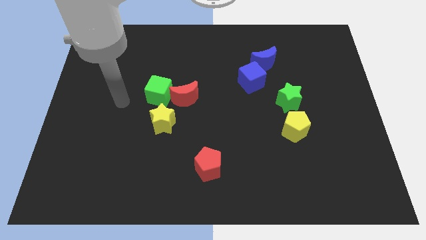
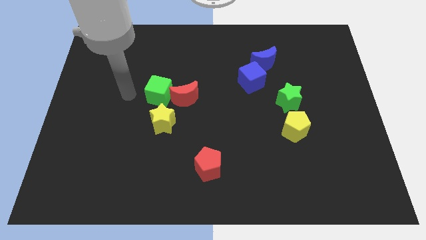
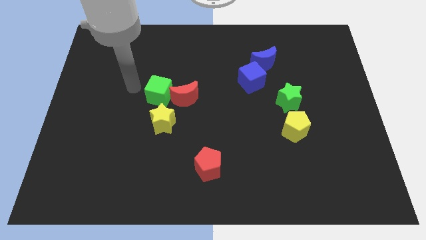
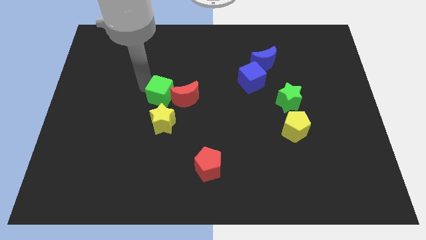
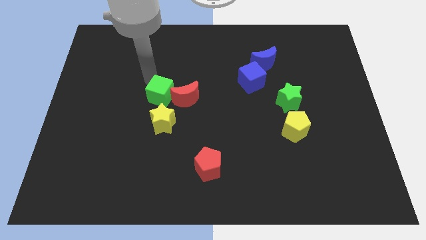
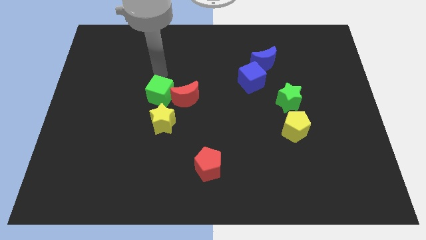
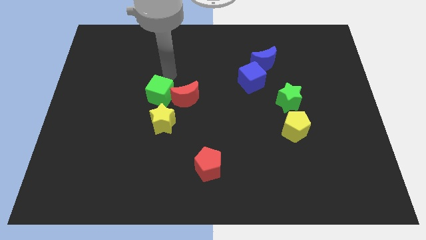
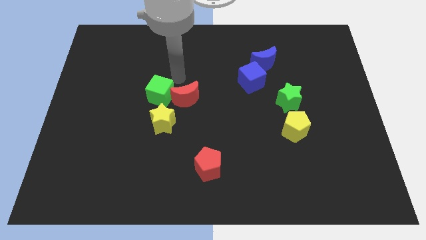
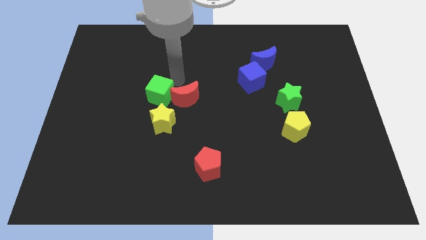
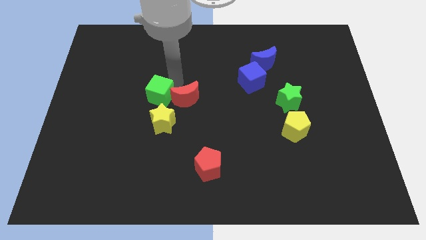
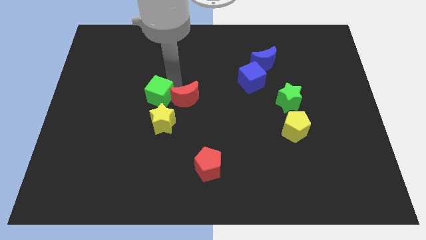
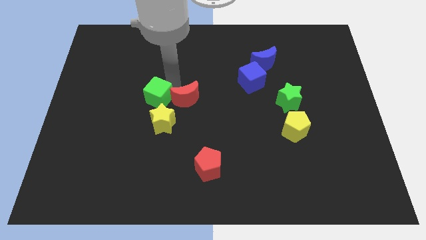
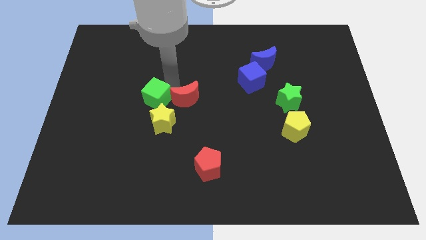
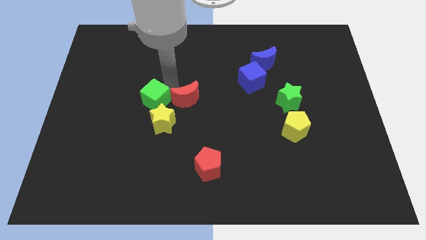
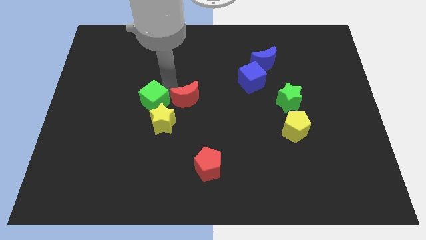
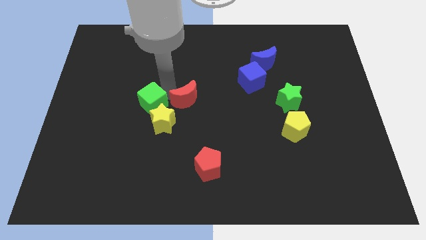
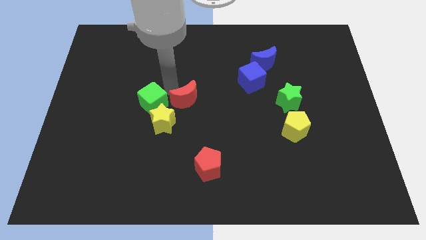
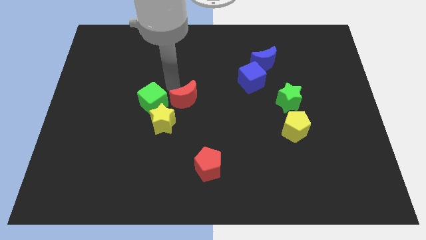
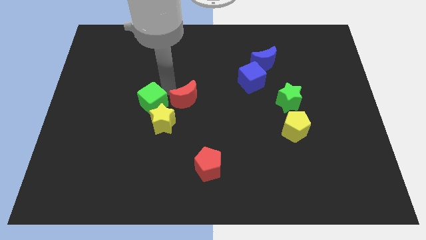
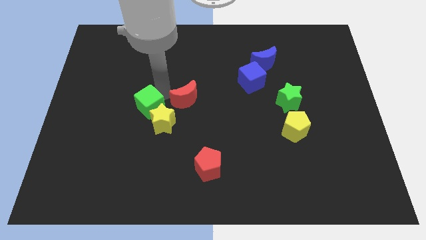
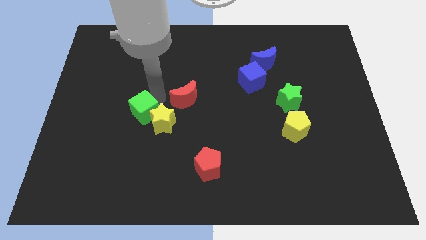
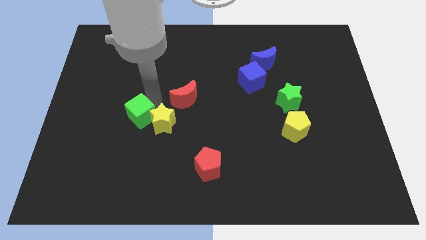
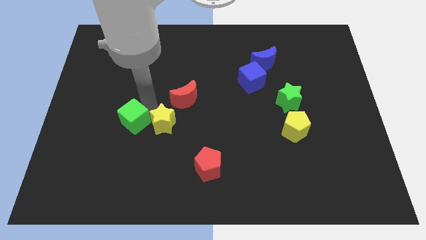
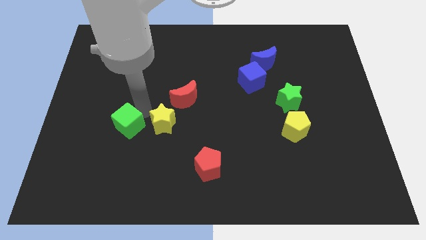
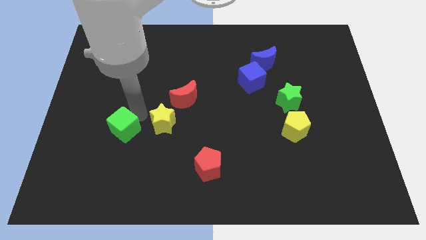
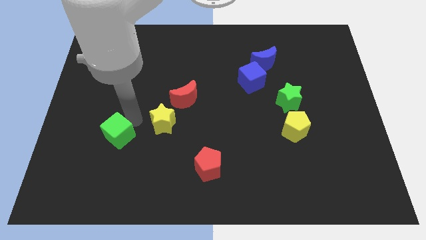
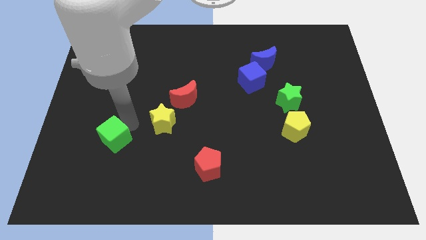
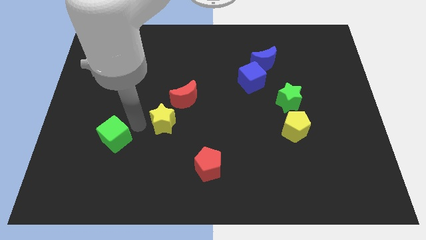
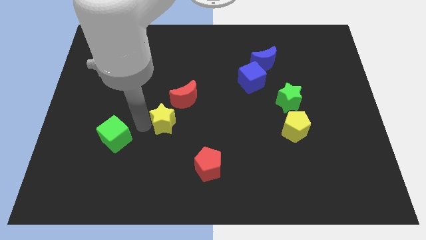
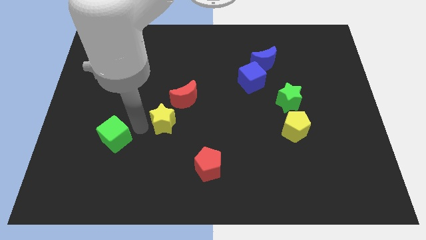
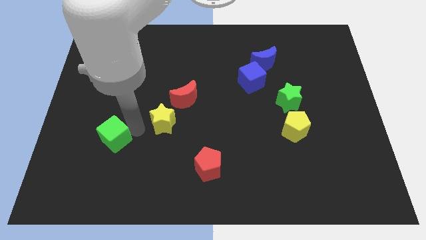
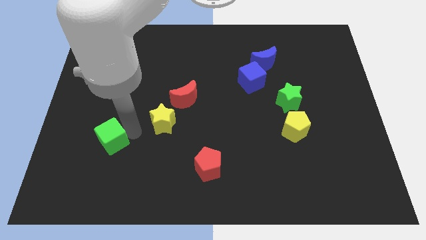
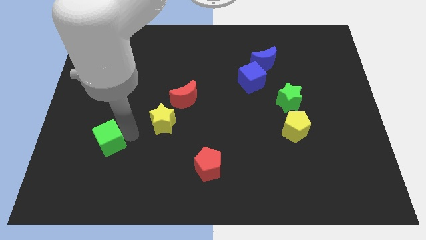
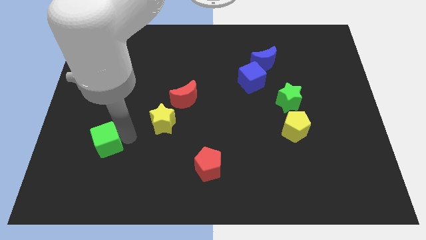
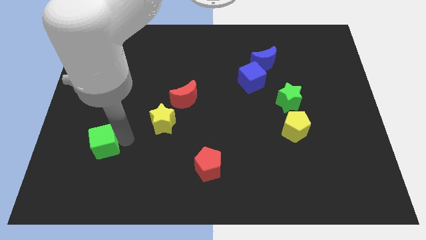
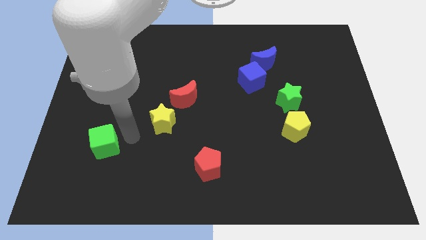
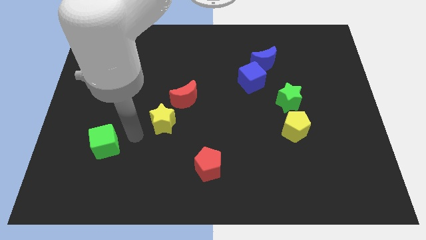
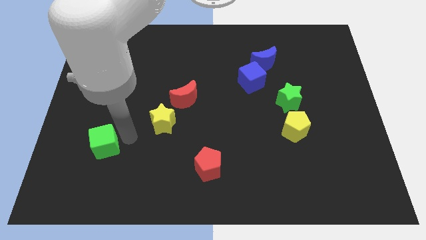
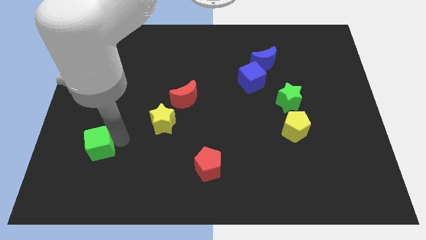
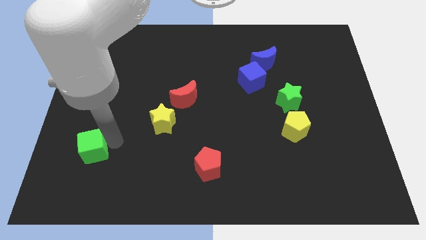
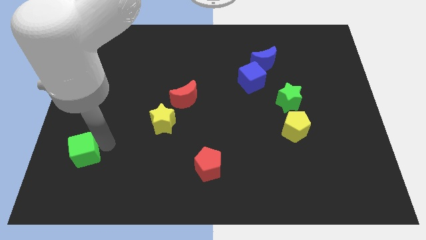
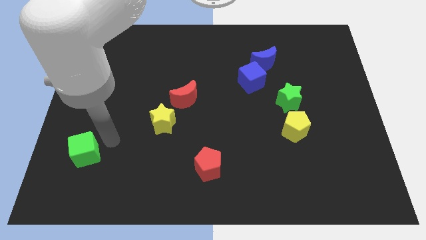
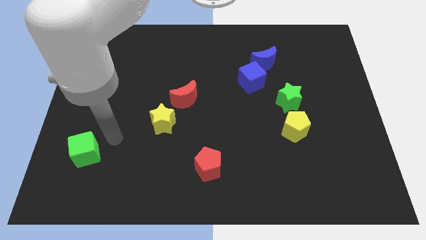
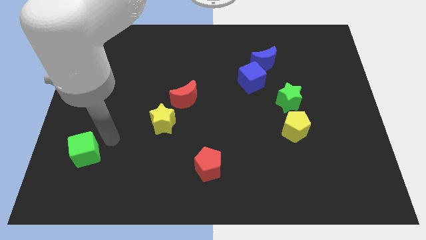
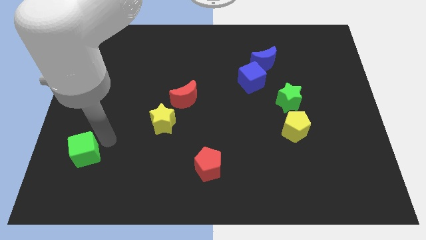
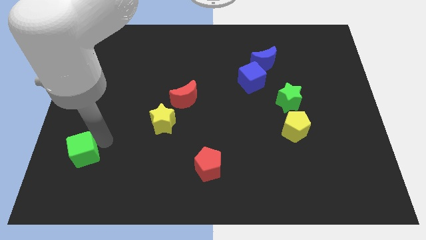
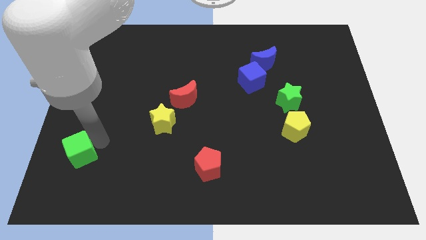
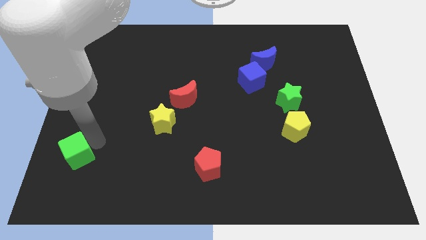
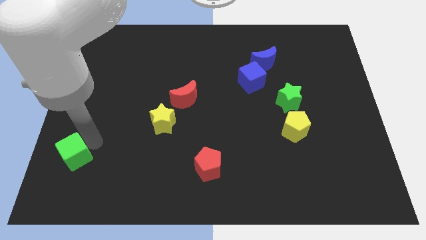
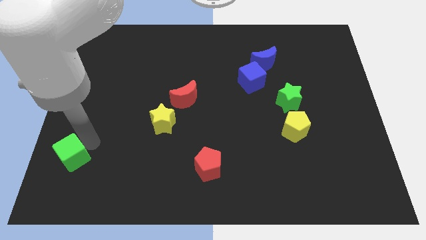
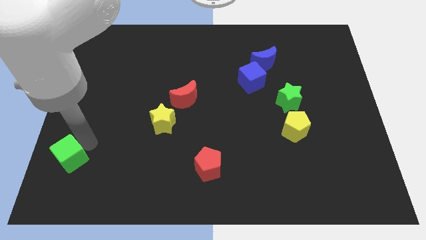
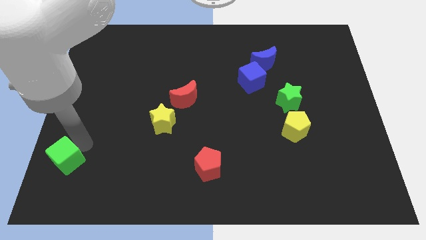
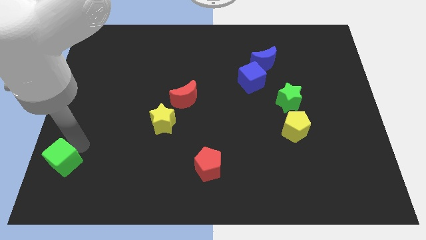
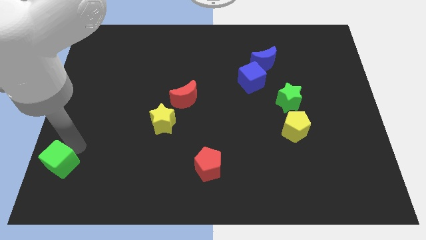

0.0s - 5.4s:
push the green cube to the bottom left
